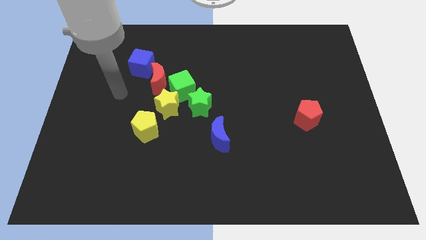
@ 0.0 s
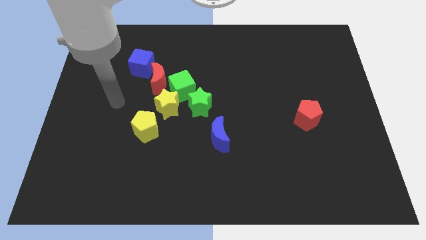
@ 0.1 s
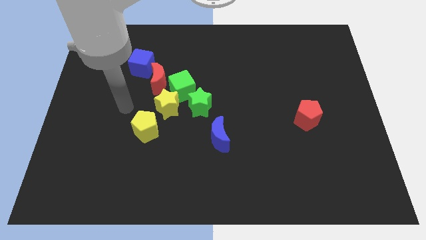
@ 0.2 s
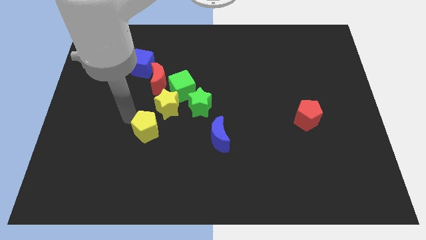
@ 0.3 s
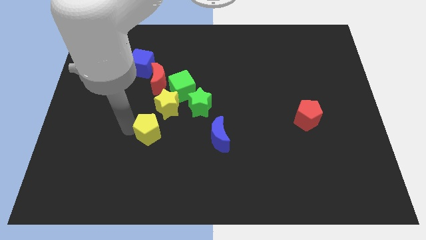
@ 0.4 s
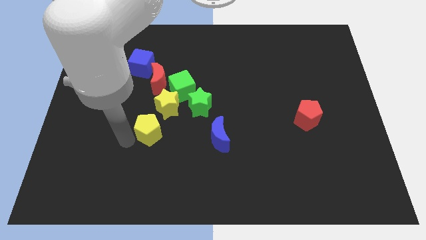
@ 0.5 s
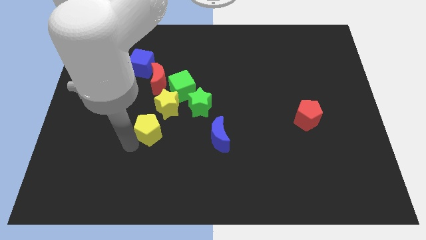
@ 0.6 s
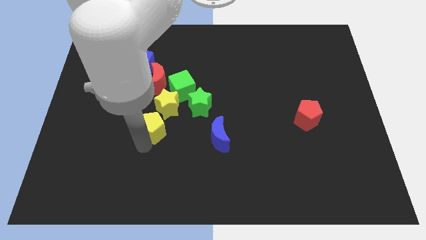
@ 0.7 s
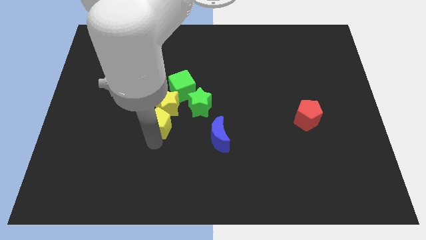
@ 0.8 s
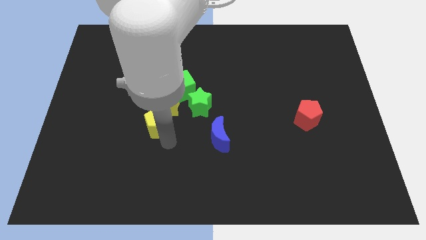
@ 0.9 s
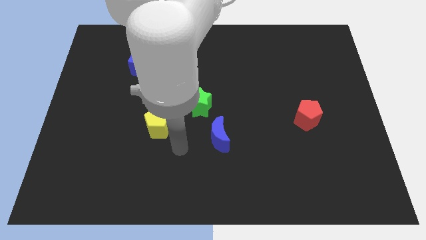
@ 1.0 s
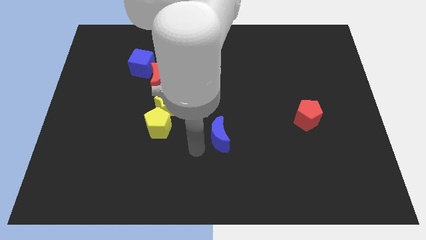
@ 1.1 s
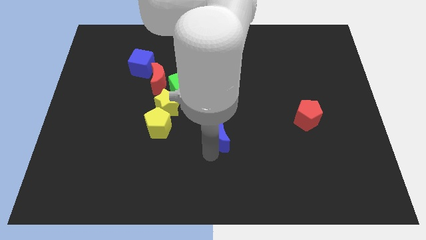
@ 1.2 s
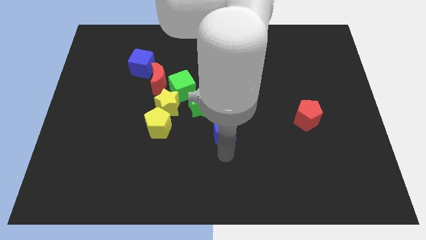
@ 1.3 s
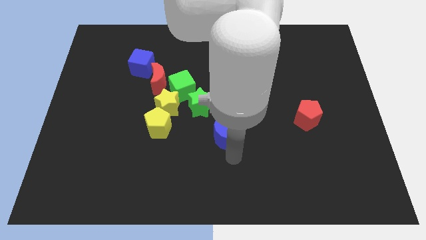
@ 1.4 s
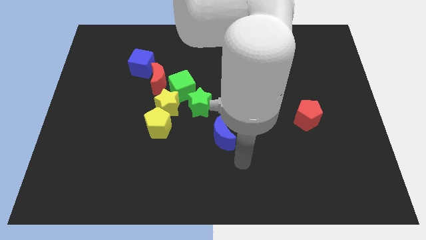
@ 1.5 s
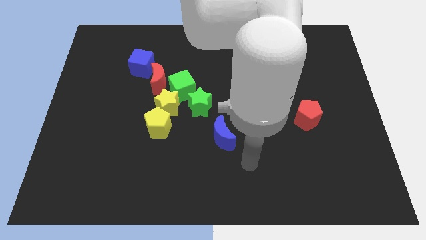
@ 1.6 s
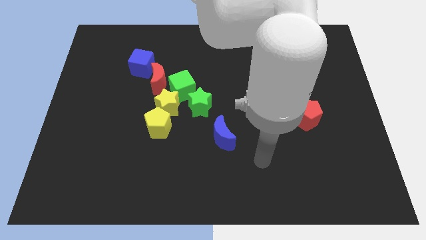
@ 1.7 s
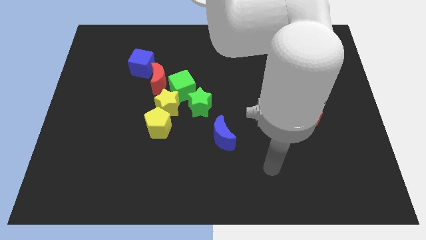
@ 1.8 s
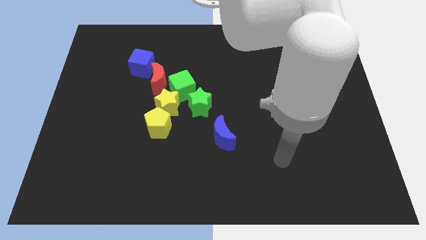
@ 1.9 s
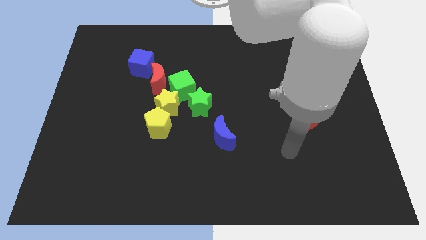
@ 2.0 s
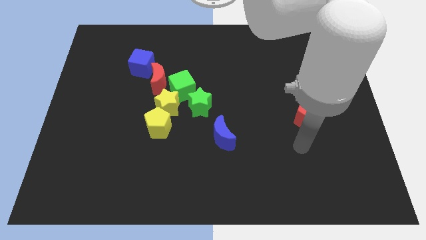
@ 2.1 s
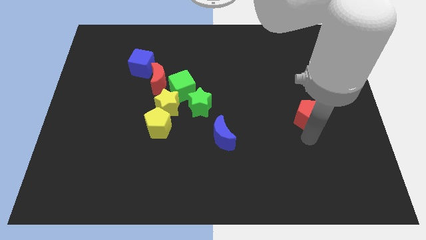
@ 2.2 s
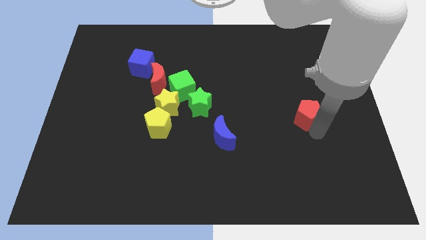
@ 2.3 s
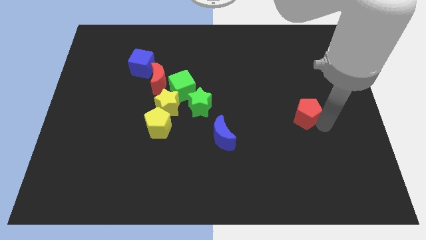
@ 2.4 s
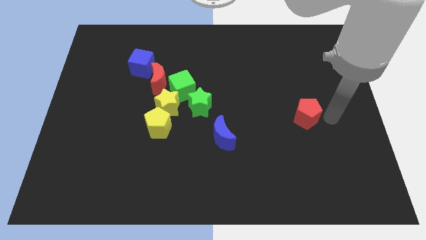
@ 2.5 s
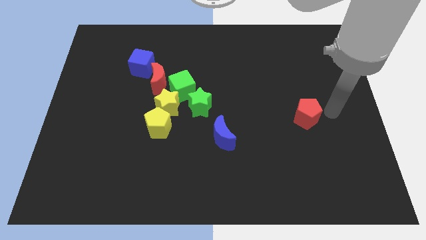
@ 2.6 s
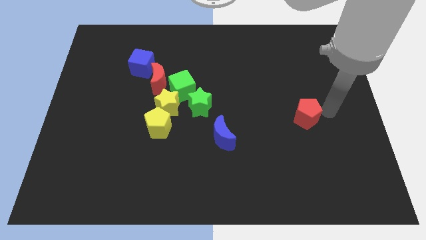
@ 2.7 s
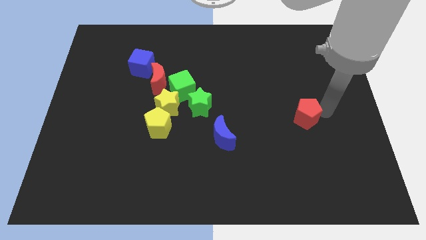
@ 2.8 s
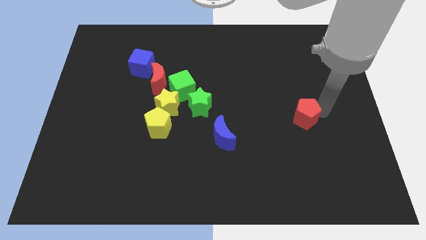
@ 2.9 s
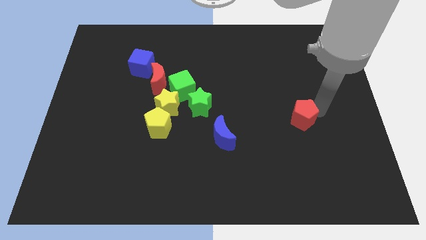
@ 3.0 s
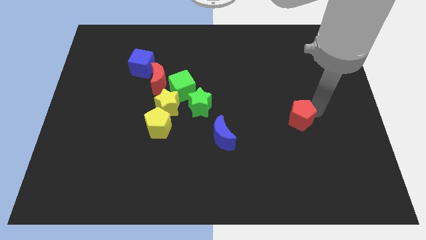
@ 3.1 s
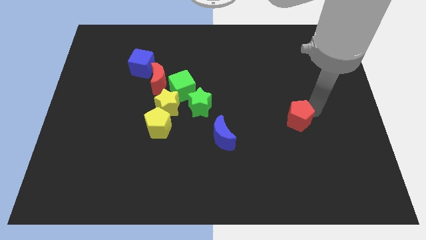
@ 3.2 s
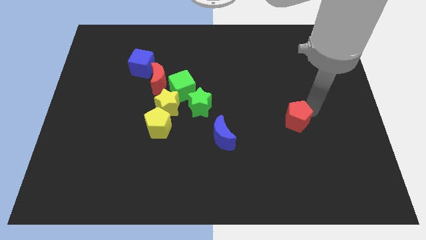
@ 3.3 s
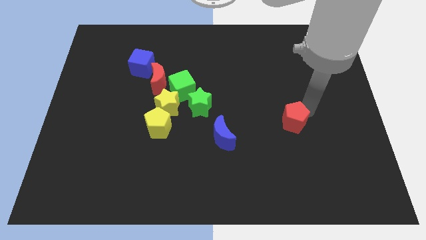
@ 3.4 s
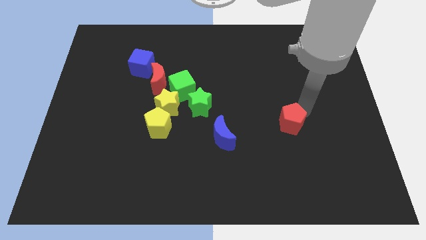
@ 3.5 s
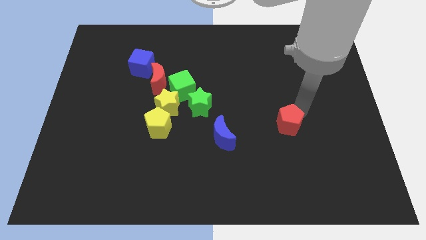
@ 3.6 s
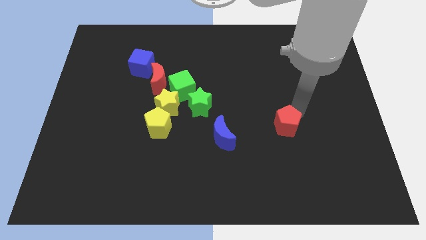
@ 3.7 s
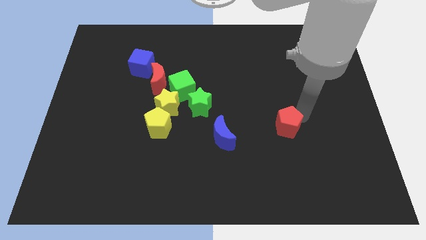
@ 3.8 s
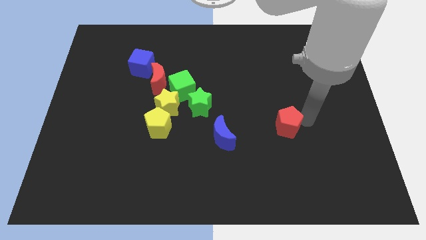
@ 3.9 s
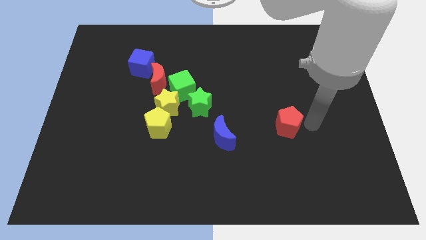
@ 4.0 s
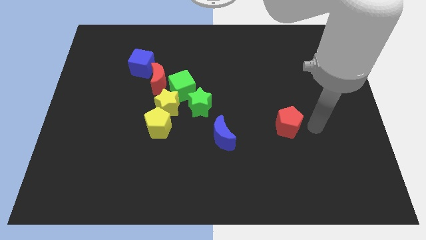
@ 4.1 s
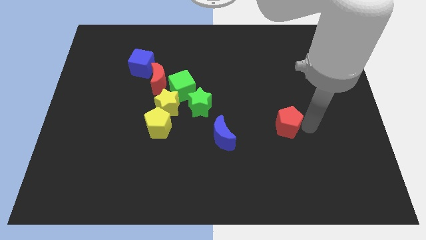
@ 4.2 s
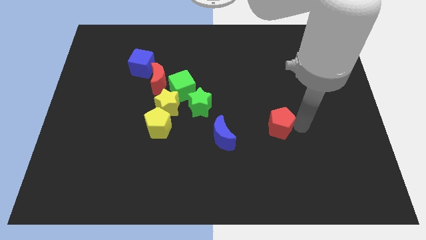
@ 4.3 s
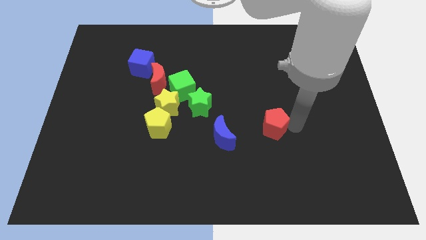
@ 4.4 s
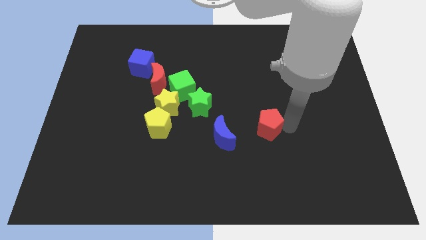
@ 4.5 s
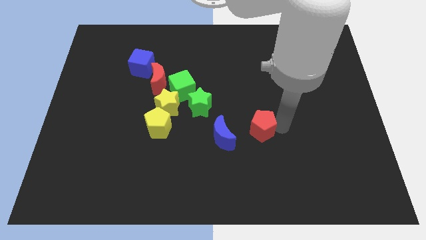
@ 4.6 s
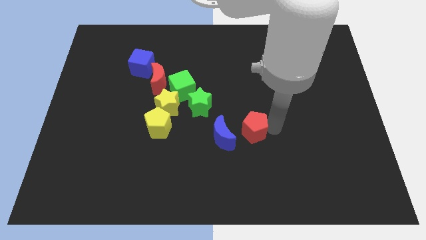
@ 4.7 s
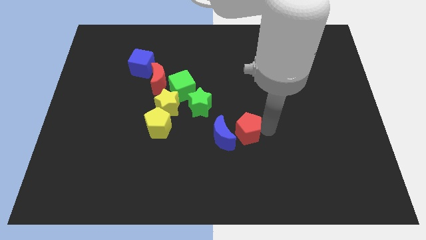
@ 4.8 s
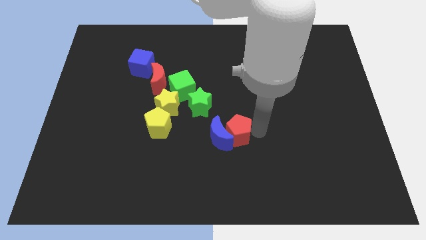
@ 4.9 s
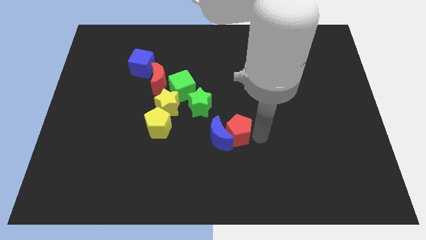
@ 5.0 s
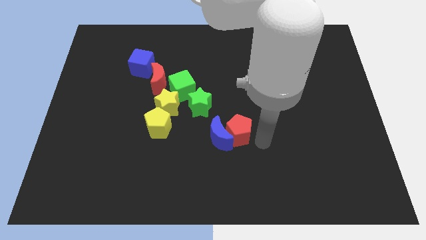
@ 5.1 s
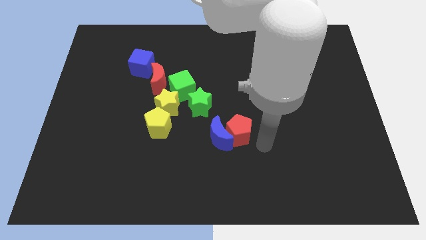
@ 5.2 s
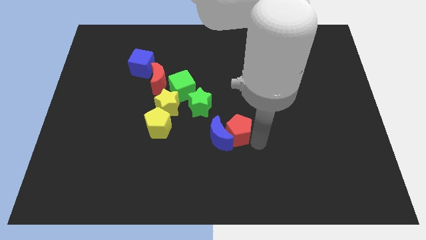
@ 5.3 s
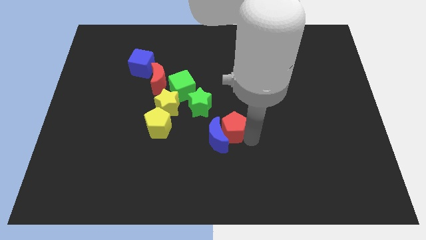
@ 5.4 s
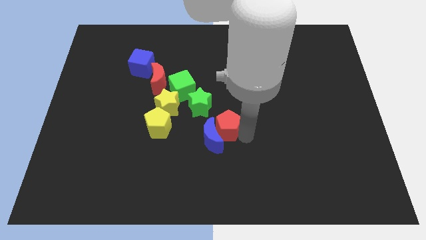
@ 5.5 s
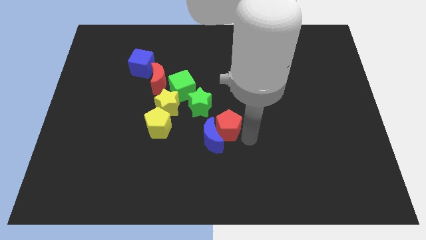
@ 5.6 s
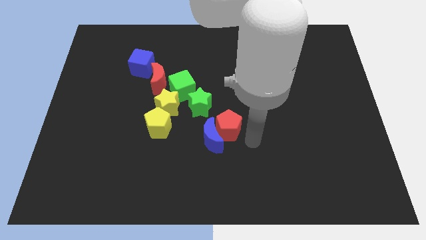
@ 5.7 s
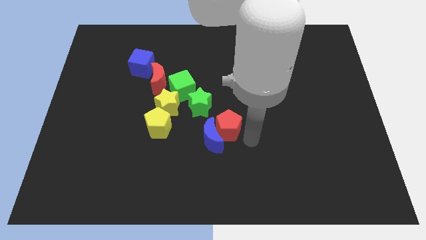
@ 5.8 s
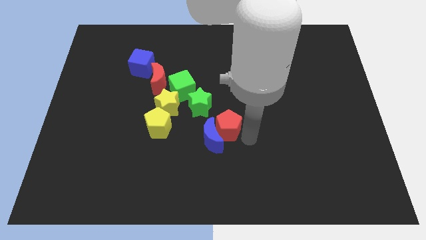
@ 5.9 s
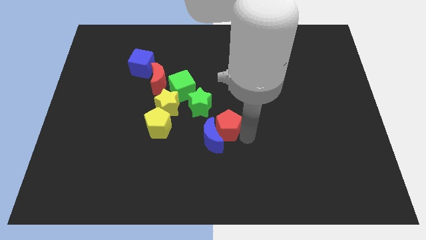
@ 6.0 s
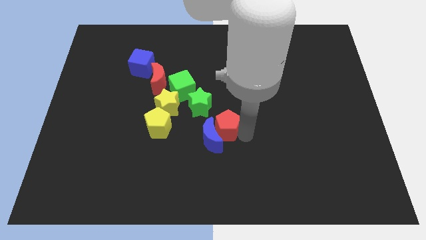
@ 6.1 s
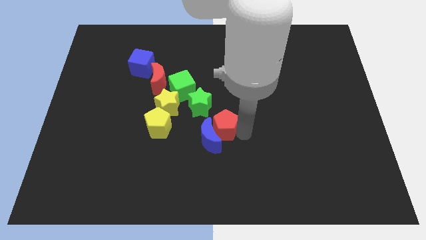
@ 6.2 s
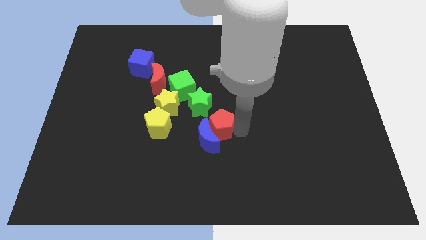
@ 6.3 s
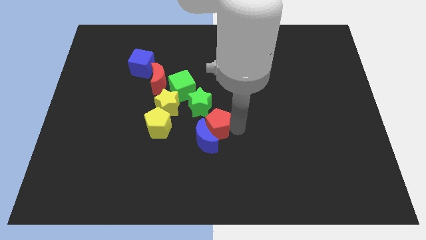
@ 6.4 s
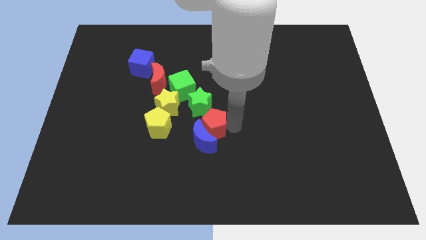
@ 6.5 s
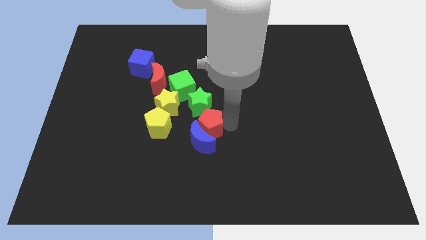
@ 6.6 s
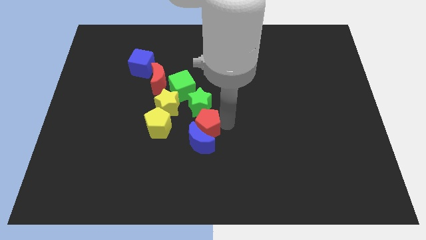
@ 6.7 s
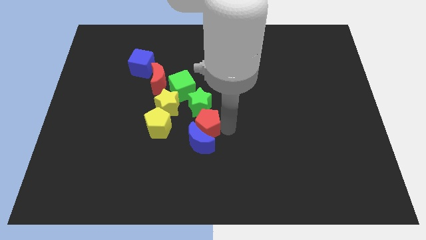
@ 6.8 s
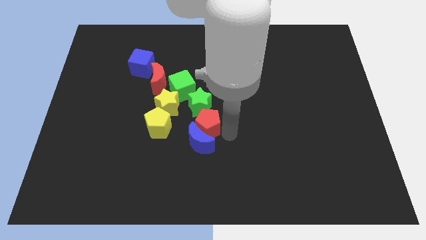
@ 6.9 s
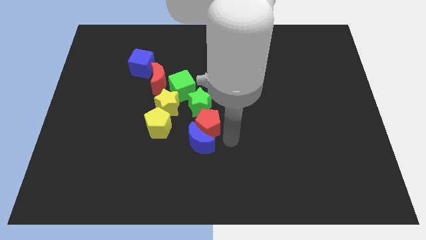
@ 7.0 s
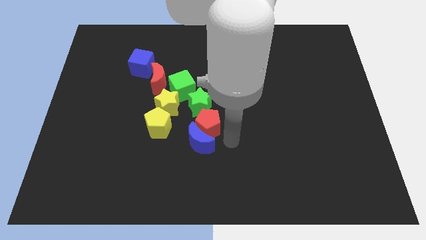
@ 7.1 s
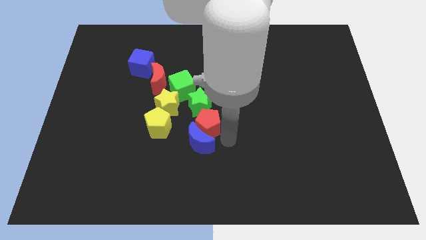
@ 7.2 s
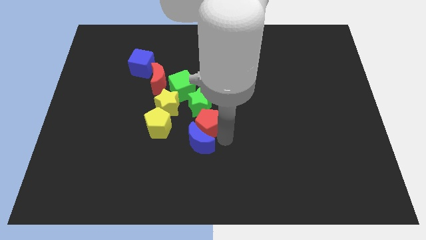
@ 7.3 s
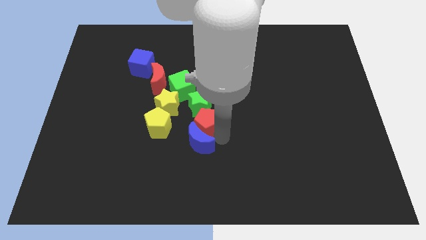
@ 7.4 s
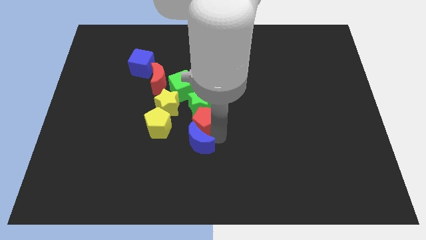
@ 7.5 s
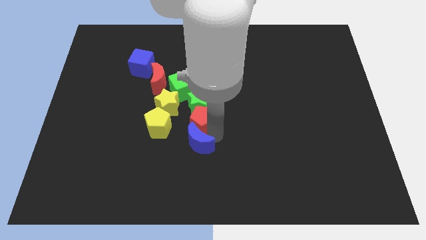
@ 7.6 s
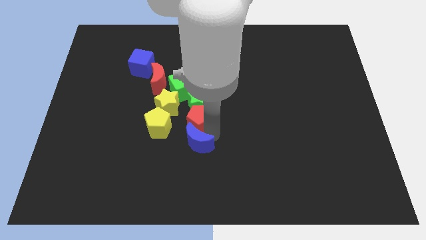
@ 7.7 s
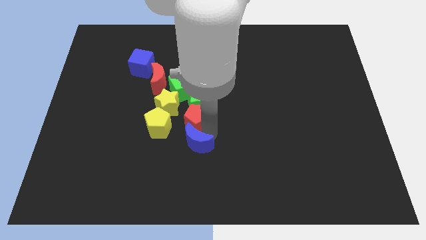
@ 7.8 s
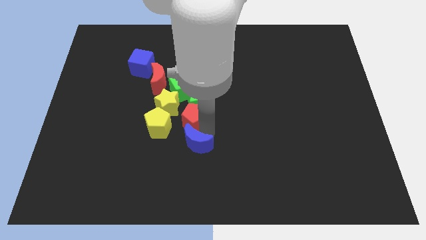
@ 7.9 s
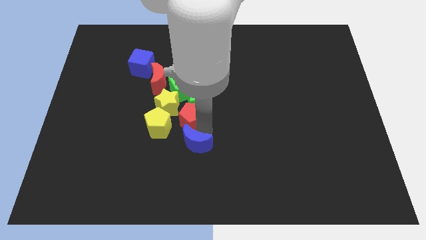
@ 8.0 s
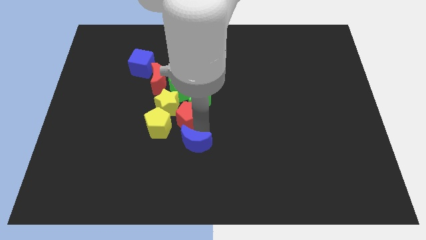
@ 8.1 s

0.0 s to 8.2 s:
push the red pentagon to the yellow star
